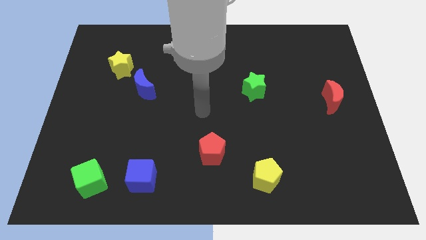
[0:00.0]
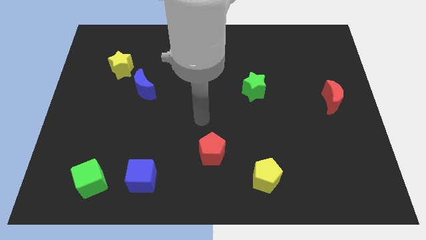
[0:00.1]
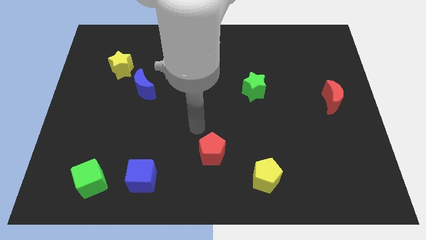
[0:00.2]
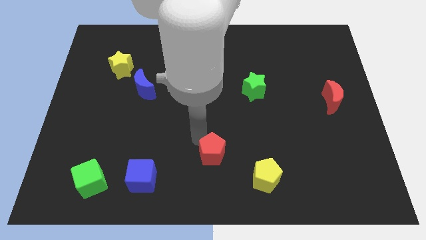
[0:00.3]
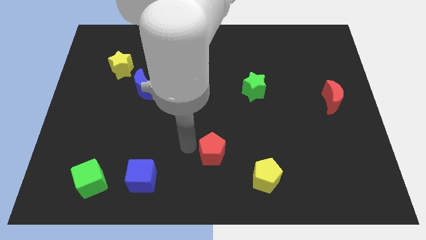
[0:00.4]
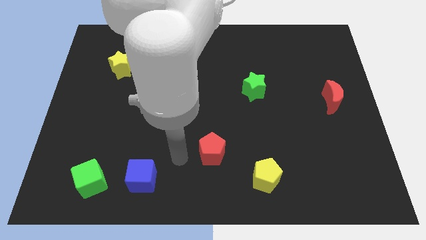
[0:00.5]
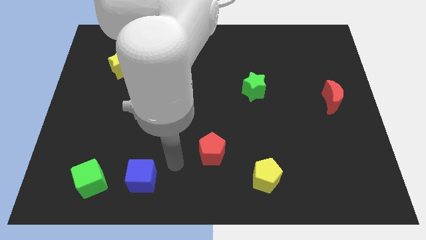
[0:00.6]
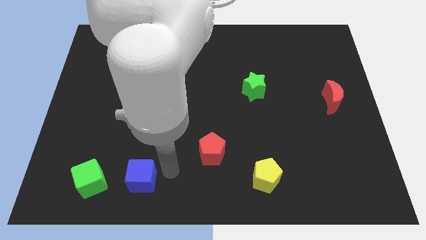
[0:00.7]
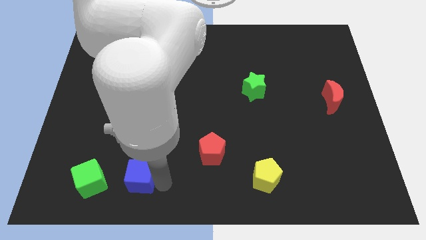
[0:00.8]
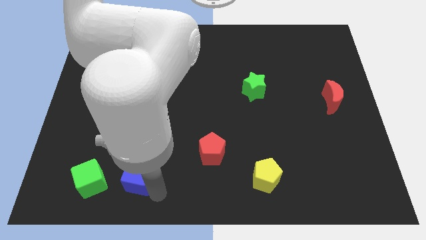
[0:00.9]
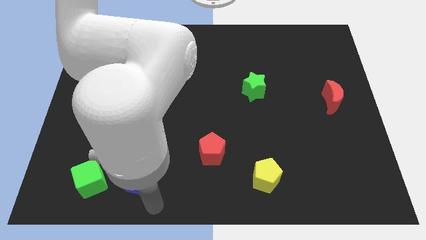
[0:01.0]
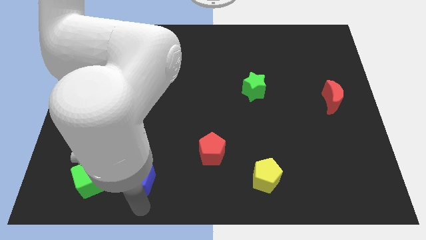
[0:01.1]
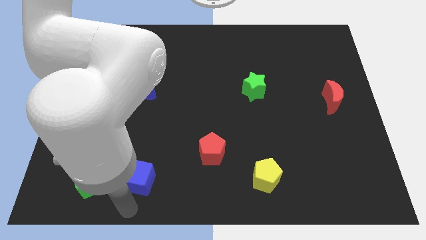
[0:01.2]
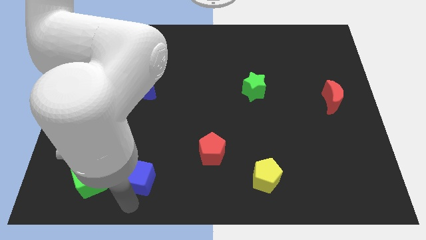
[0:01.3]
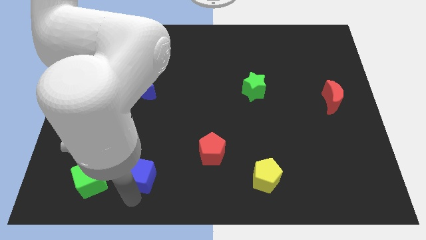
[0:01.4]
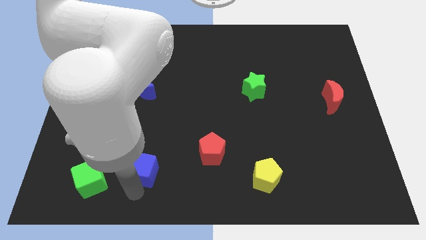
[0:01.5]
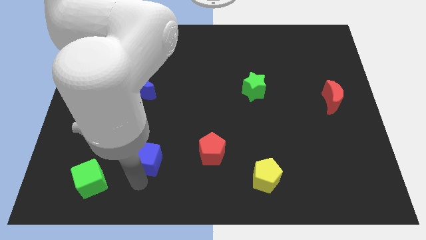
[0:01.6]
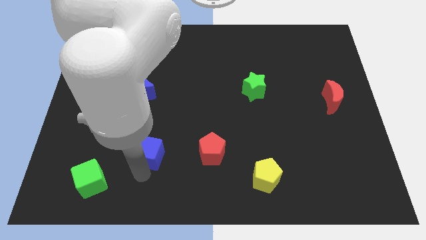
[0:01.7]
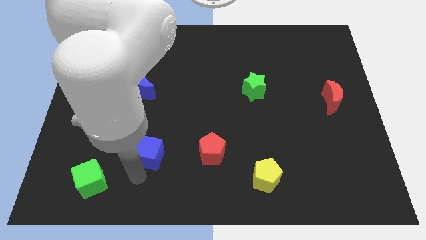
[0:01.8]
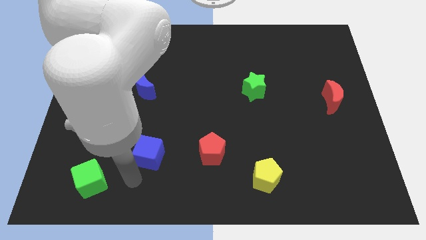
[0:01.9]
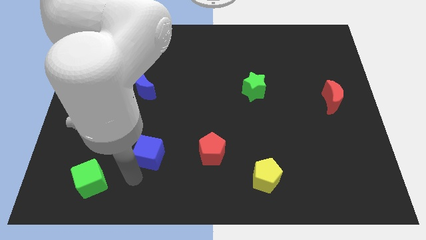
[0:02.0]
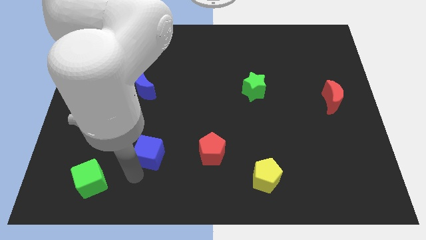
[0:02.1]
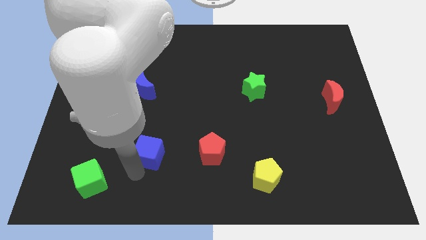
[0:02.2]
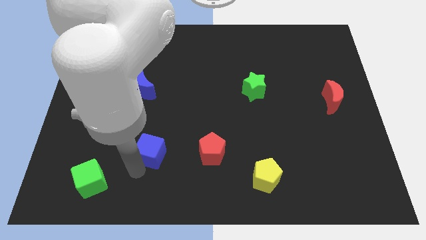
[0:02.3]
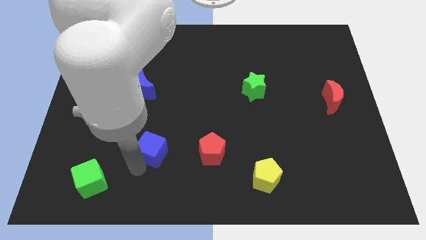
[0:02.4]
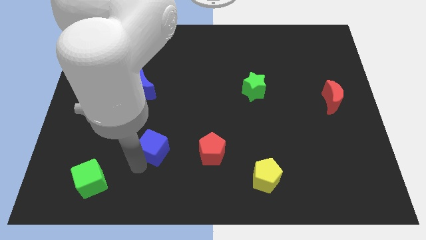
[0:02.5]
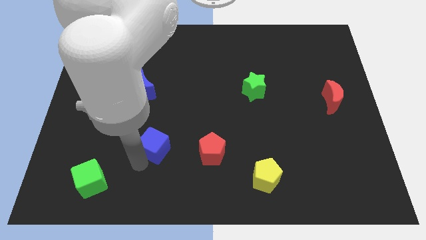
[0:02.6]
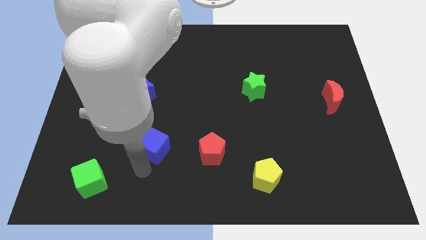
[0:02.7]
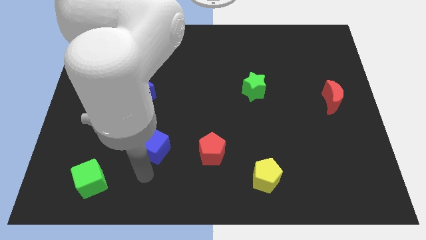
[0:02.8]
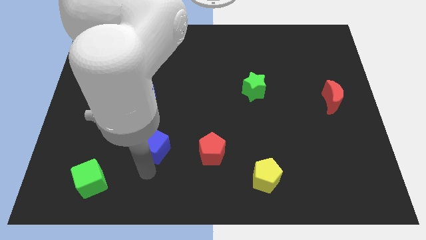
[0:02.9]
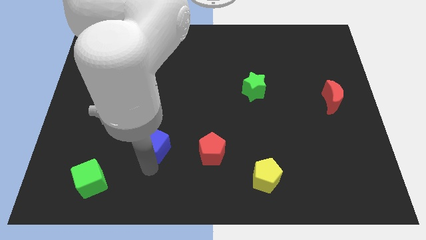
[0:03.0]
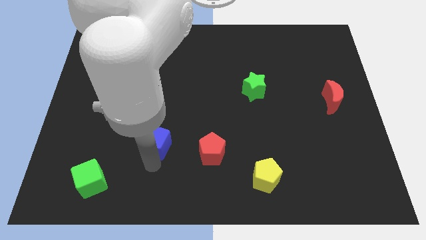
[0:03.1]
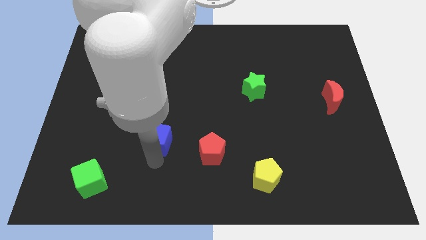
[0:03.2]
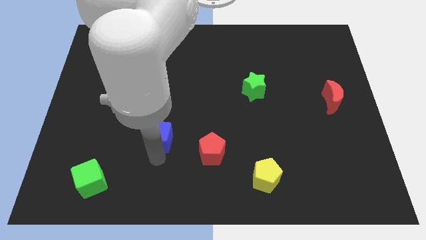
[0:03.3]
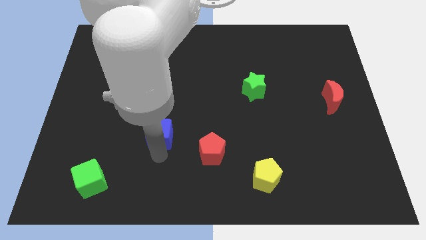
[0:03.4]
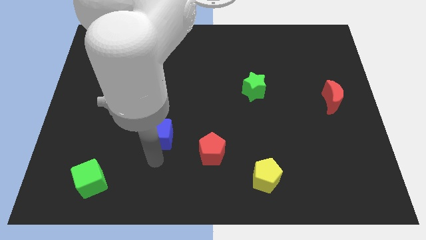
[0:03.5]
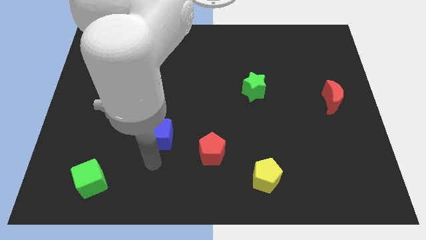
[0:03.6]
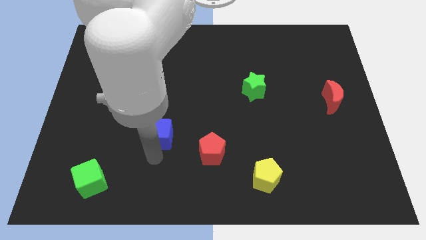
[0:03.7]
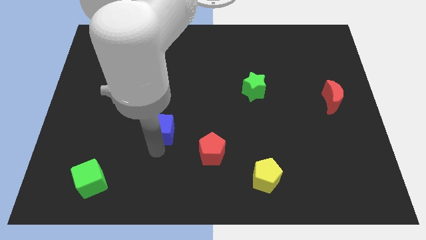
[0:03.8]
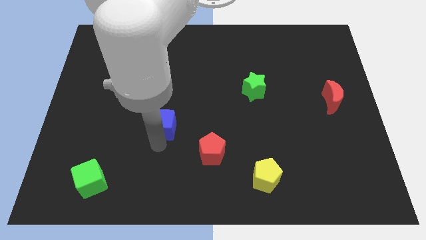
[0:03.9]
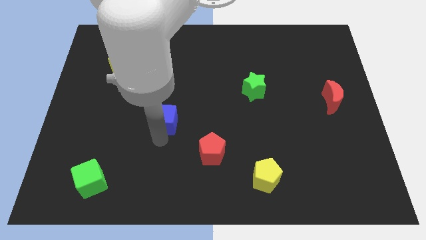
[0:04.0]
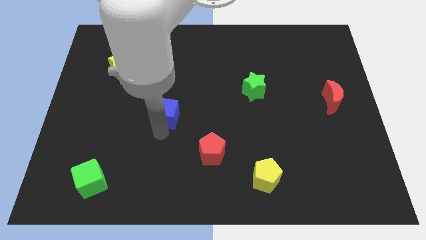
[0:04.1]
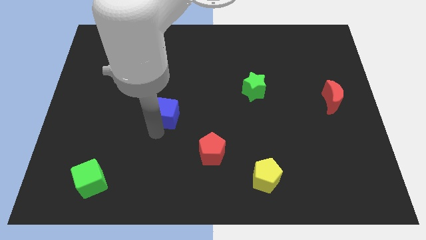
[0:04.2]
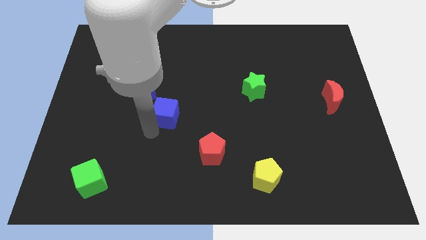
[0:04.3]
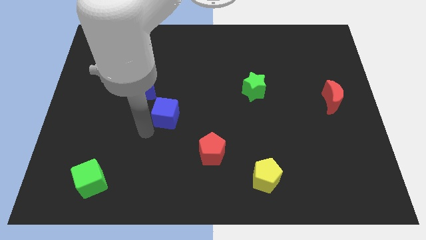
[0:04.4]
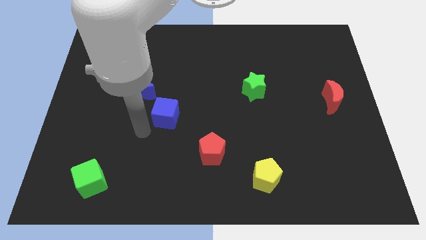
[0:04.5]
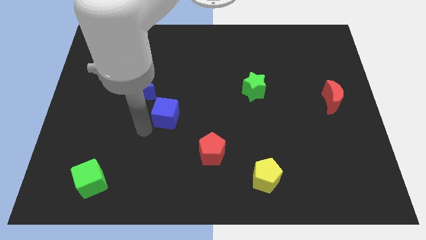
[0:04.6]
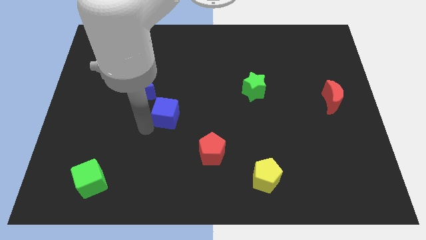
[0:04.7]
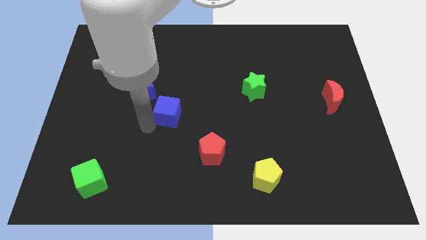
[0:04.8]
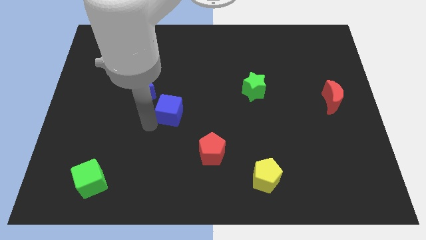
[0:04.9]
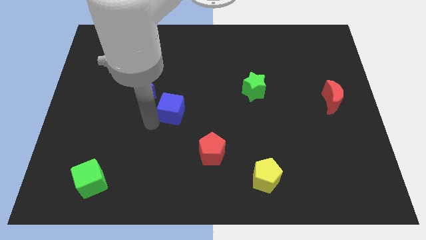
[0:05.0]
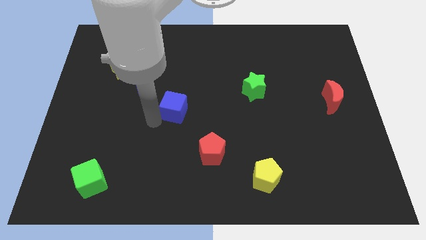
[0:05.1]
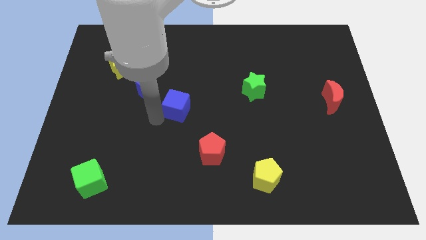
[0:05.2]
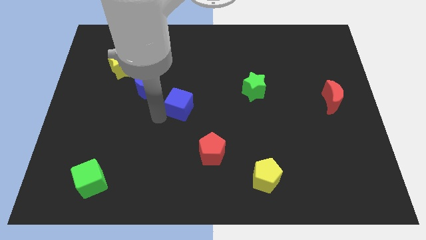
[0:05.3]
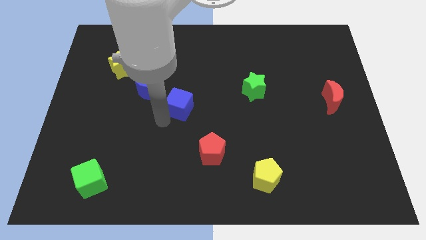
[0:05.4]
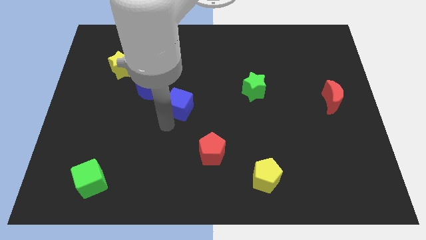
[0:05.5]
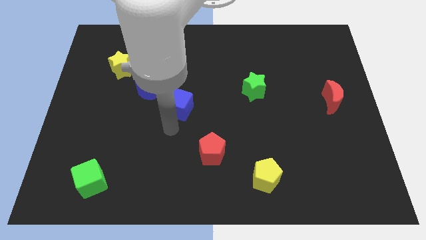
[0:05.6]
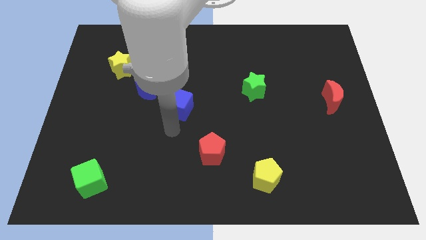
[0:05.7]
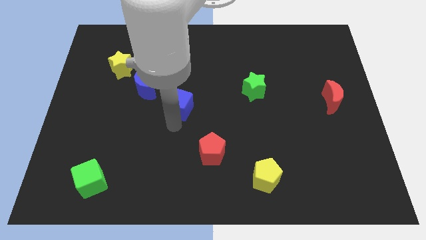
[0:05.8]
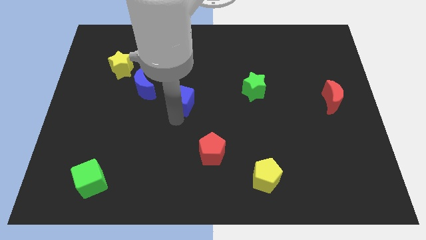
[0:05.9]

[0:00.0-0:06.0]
put the blue cube right of the blue moon

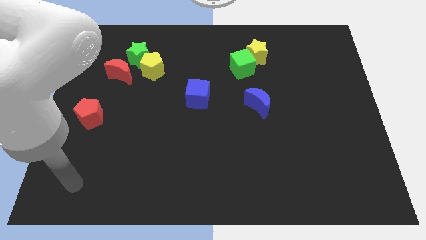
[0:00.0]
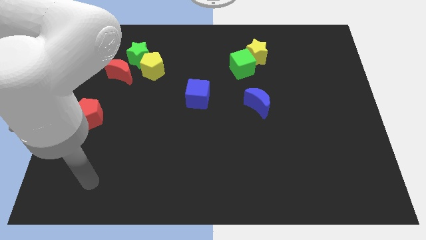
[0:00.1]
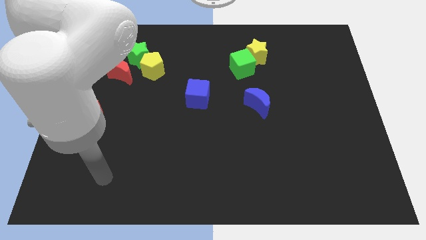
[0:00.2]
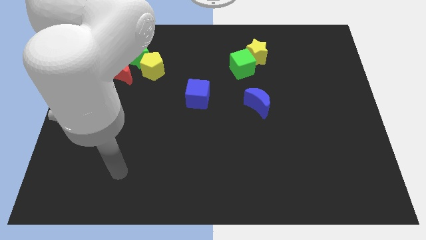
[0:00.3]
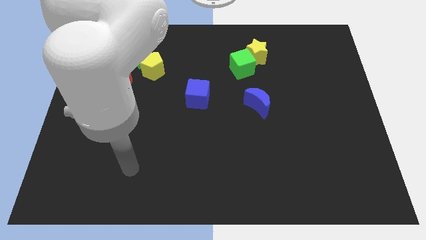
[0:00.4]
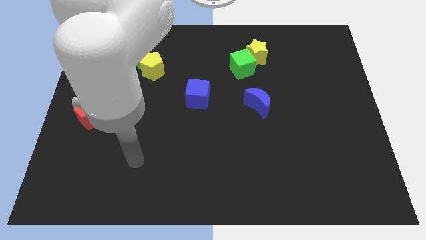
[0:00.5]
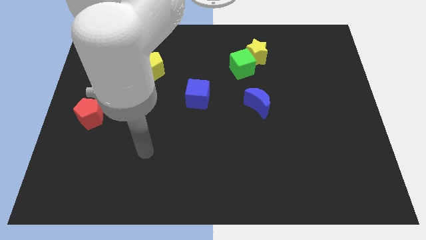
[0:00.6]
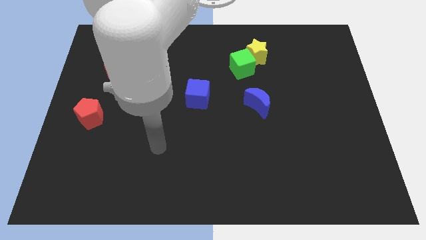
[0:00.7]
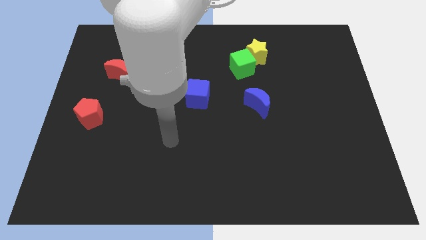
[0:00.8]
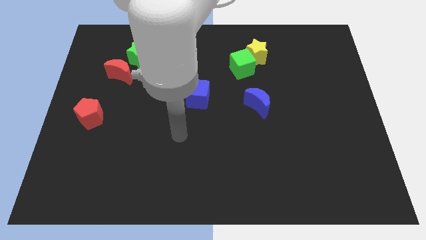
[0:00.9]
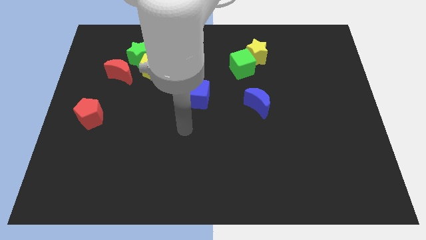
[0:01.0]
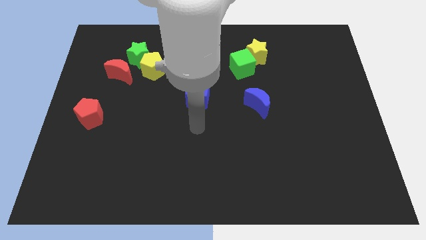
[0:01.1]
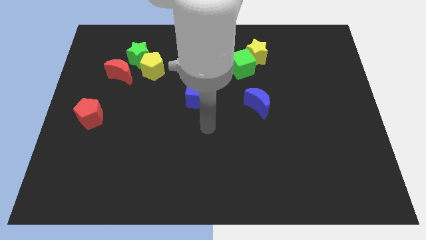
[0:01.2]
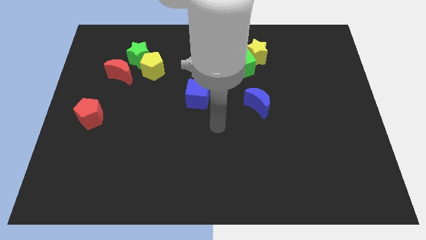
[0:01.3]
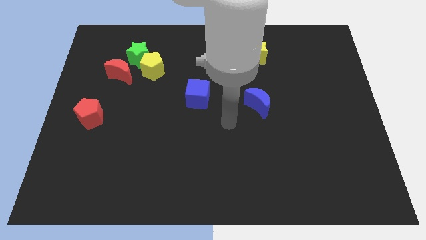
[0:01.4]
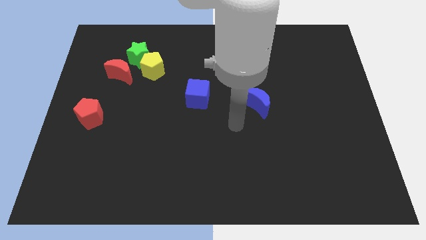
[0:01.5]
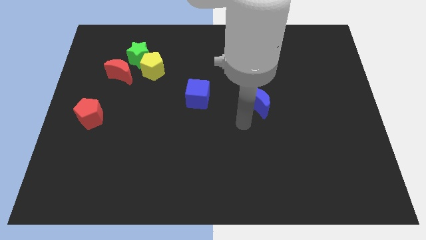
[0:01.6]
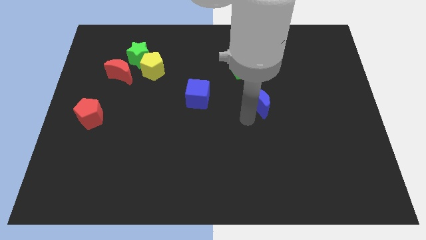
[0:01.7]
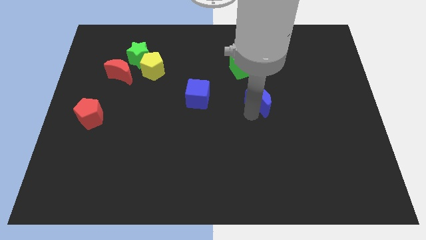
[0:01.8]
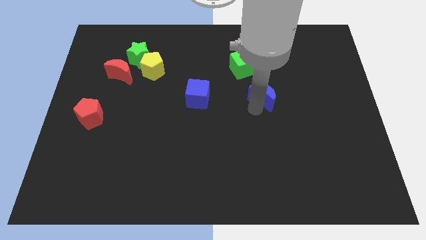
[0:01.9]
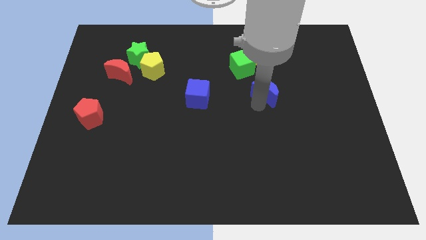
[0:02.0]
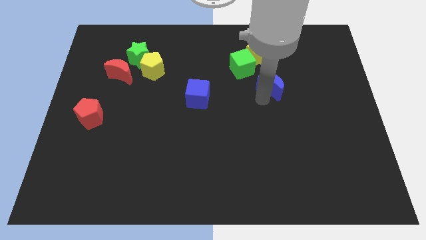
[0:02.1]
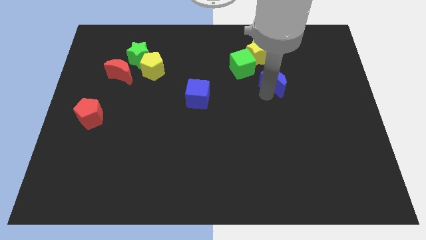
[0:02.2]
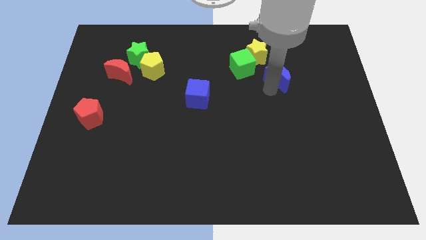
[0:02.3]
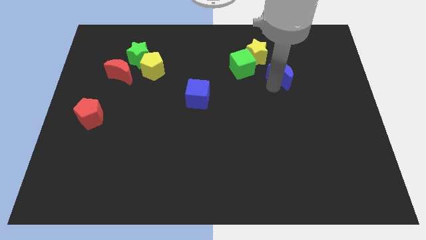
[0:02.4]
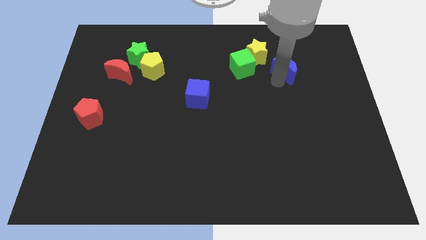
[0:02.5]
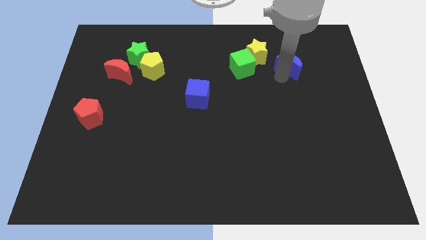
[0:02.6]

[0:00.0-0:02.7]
push the blue moon just right of the yellow star
